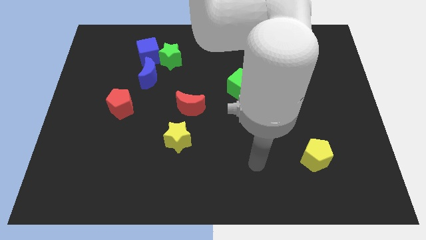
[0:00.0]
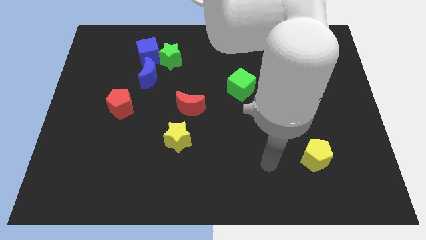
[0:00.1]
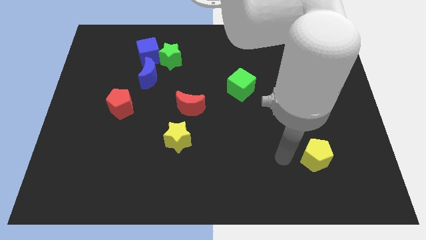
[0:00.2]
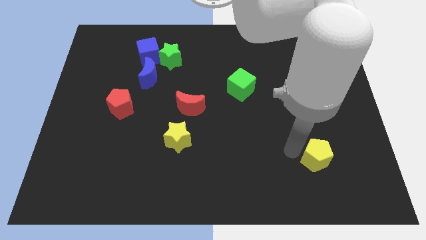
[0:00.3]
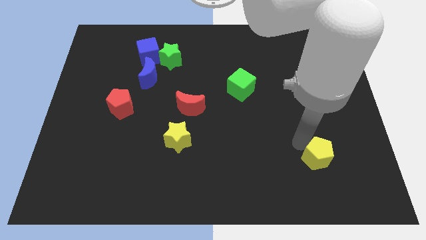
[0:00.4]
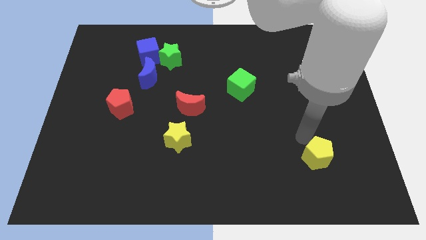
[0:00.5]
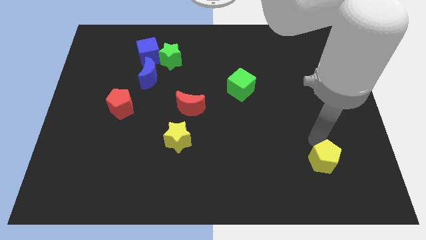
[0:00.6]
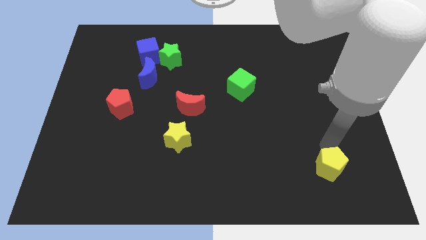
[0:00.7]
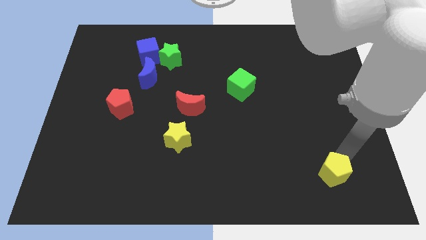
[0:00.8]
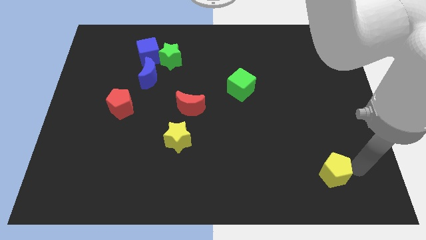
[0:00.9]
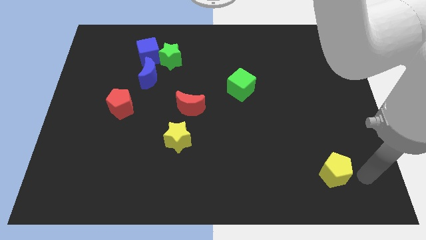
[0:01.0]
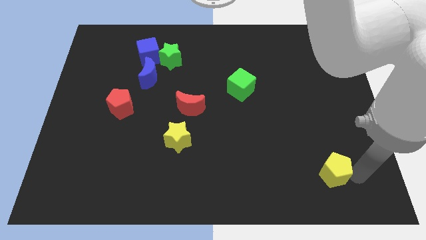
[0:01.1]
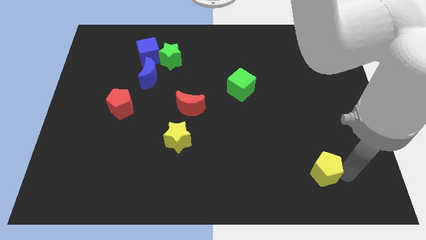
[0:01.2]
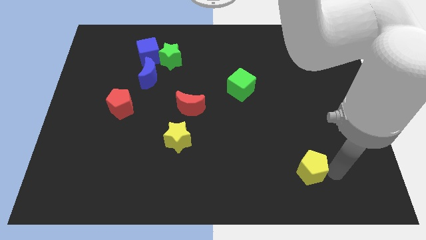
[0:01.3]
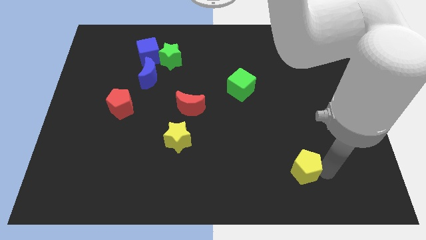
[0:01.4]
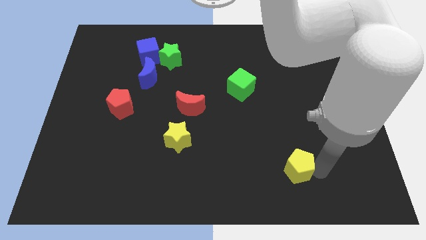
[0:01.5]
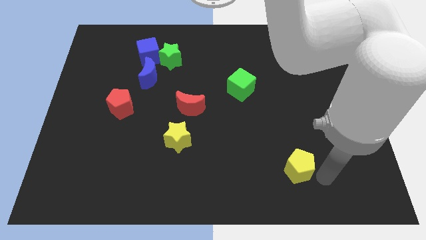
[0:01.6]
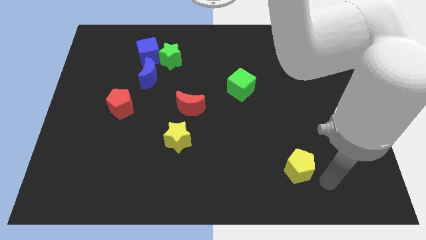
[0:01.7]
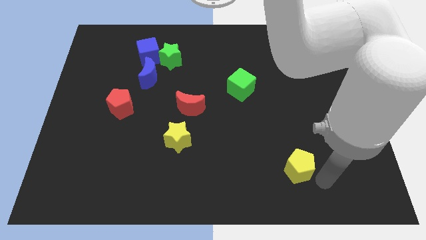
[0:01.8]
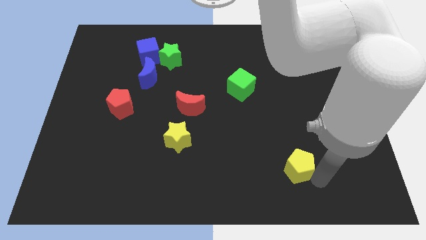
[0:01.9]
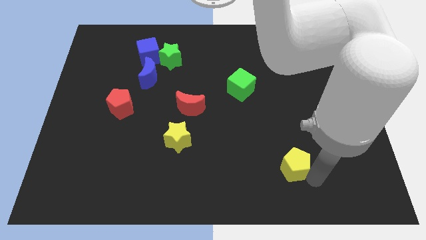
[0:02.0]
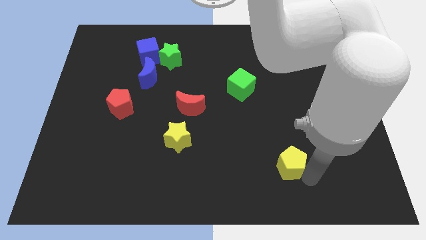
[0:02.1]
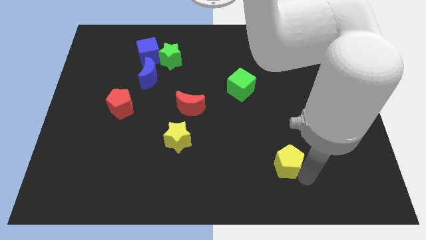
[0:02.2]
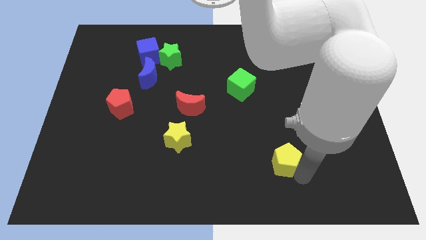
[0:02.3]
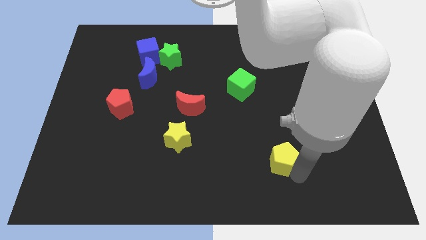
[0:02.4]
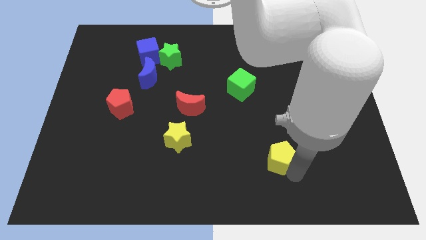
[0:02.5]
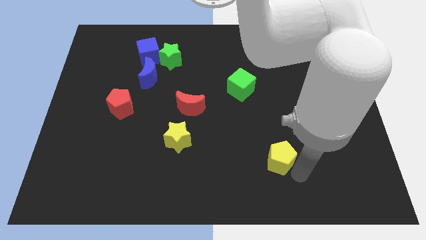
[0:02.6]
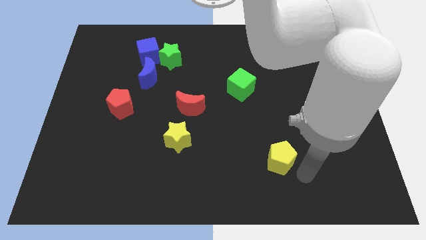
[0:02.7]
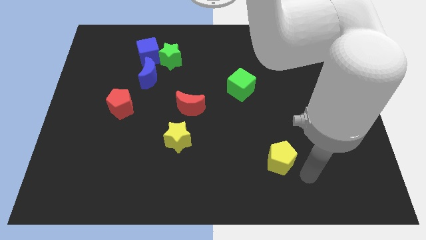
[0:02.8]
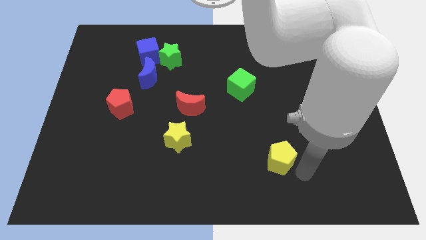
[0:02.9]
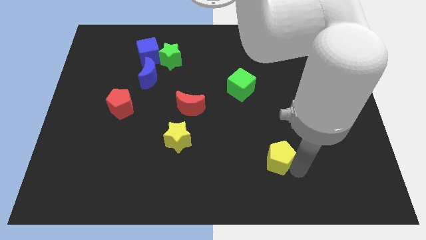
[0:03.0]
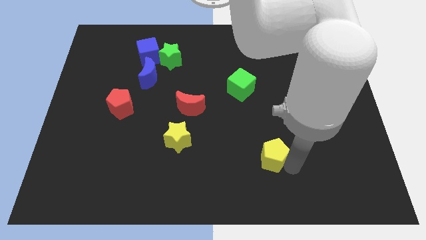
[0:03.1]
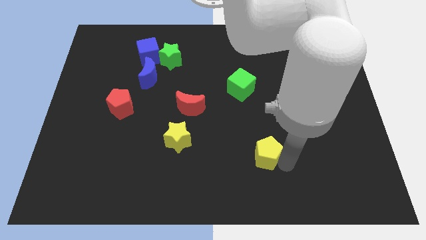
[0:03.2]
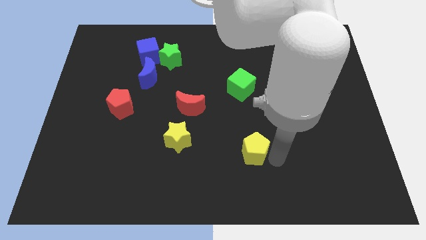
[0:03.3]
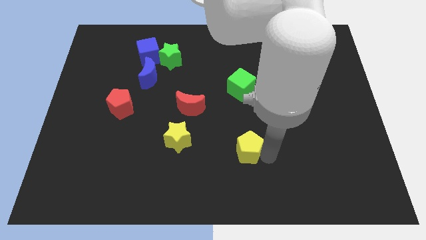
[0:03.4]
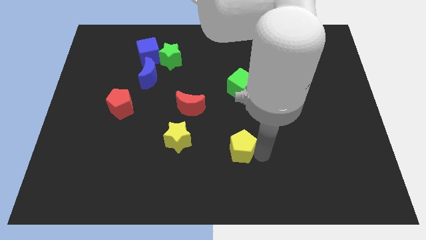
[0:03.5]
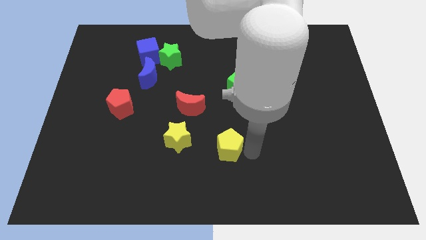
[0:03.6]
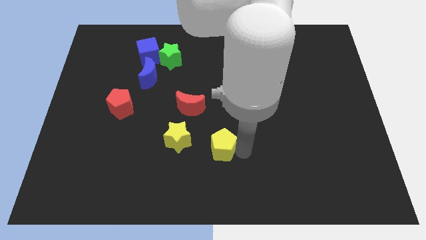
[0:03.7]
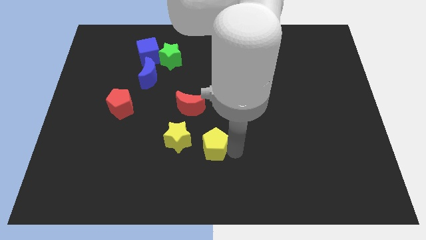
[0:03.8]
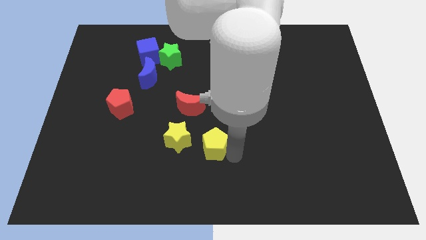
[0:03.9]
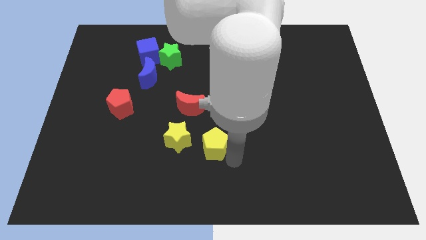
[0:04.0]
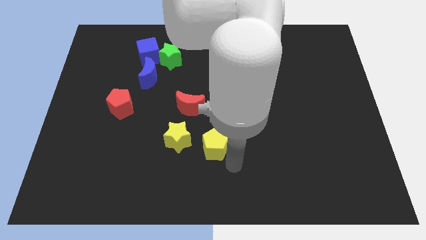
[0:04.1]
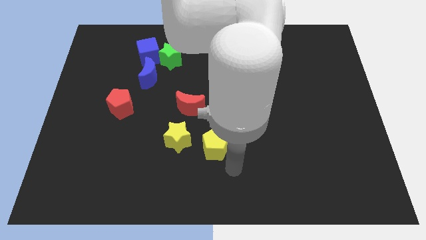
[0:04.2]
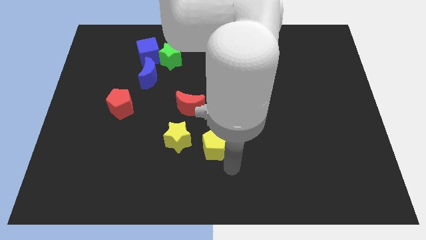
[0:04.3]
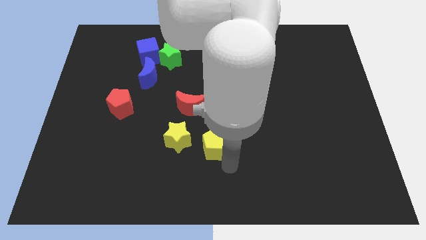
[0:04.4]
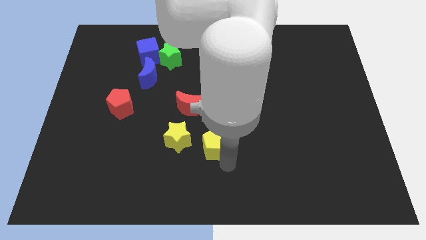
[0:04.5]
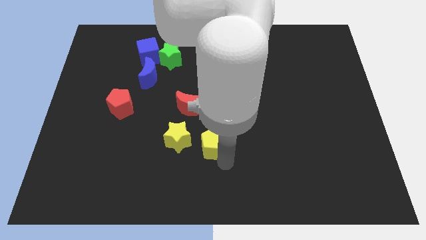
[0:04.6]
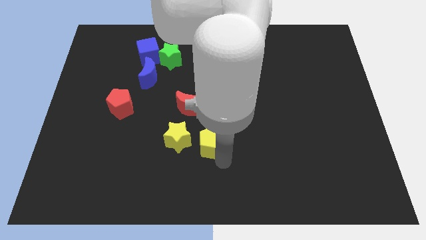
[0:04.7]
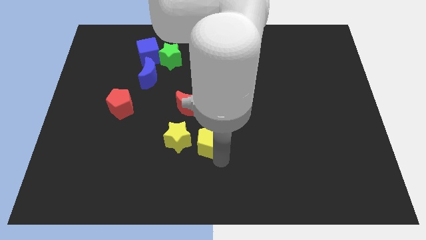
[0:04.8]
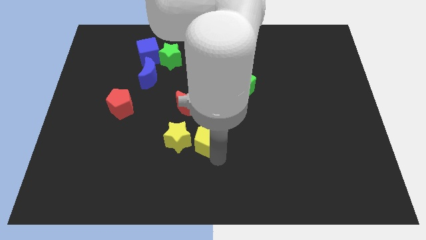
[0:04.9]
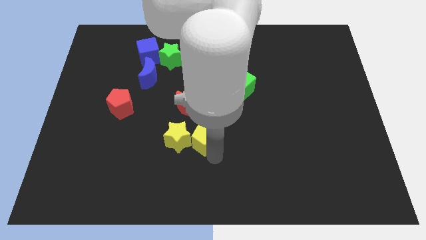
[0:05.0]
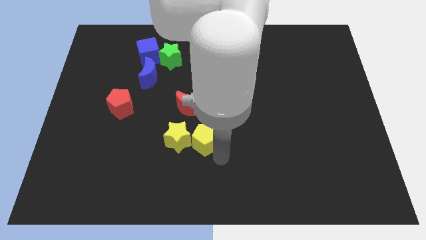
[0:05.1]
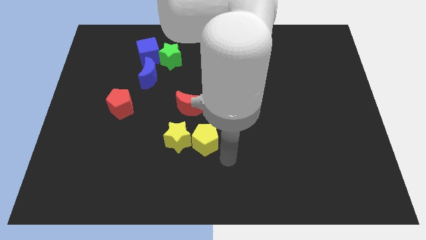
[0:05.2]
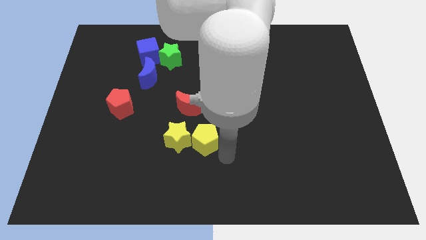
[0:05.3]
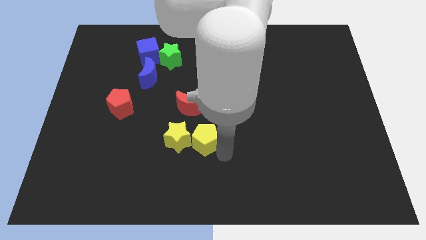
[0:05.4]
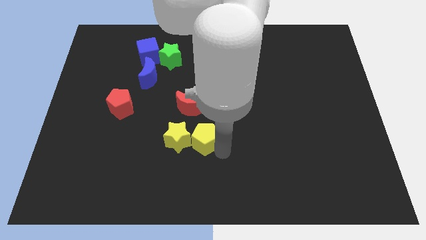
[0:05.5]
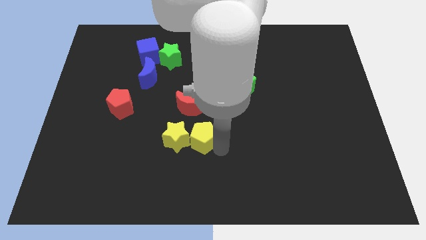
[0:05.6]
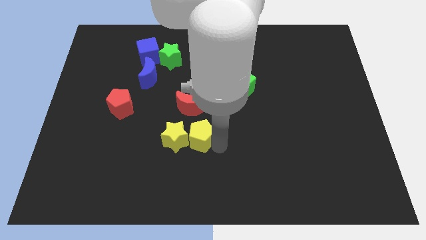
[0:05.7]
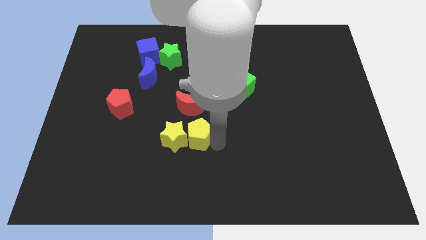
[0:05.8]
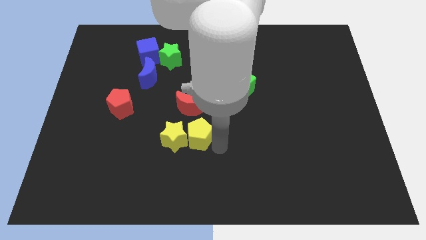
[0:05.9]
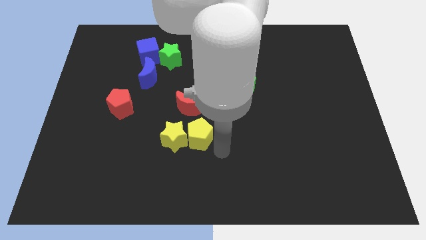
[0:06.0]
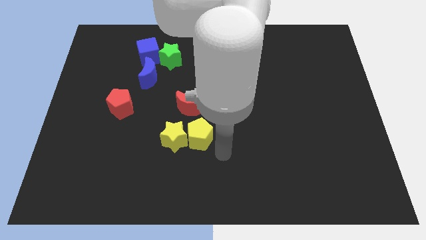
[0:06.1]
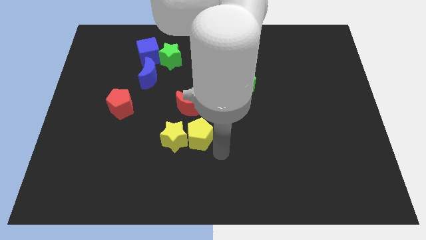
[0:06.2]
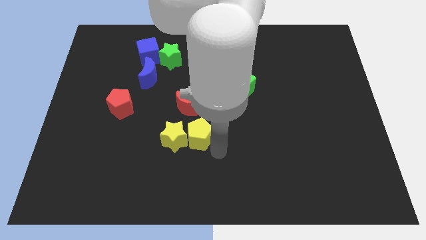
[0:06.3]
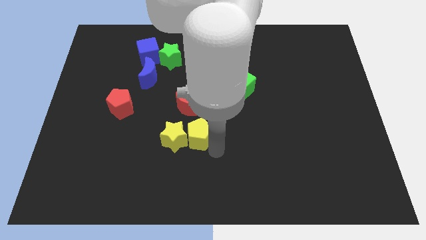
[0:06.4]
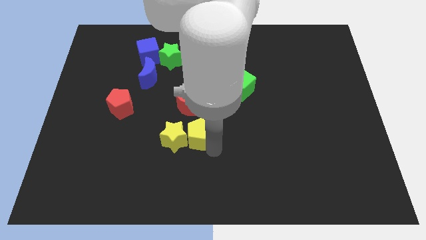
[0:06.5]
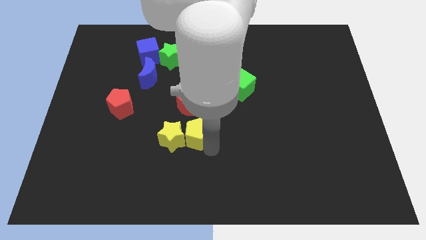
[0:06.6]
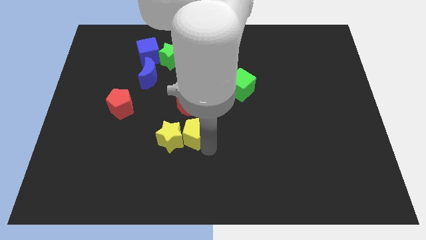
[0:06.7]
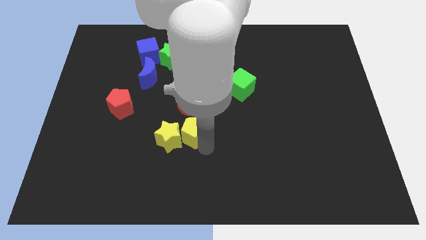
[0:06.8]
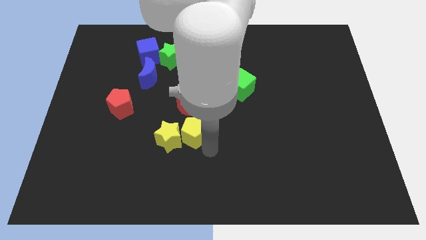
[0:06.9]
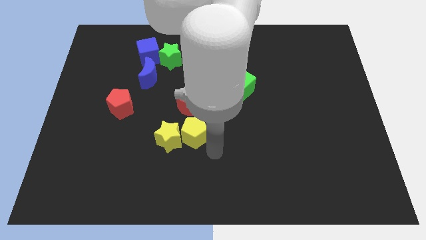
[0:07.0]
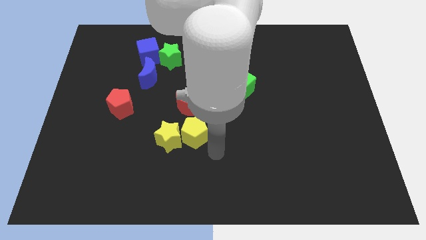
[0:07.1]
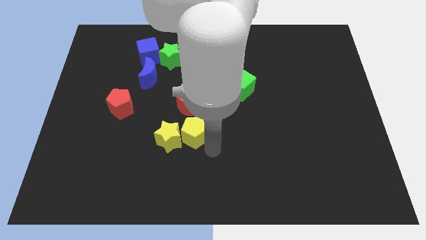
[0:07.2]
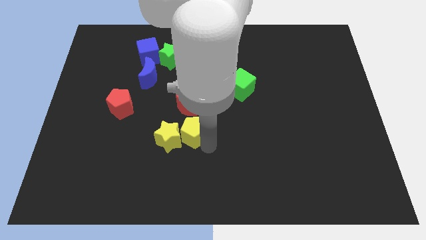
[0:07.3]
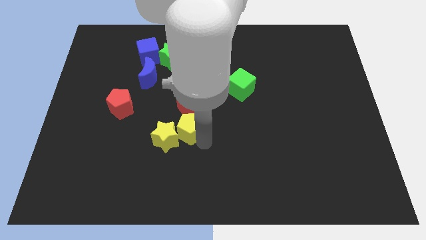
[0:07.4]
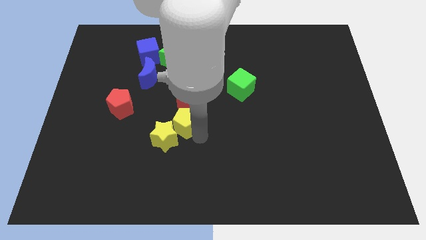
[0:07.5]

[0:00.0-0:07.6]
put the yellow pentagon diagonally down and to the left of the red moon
